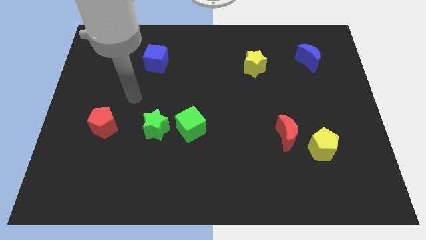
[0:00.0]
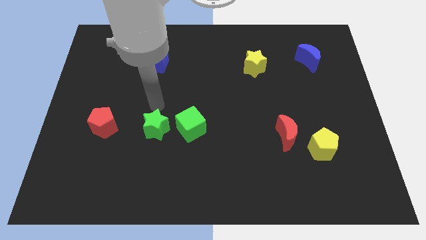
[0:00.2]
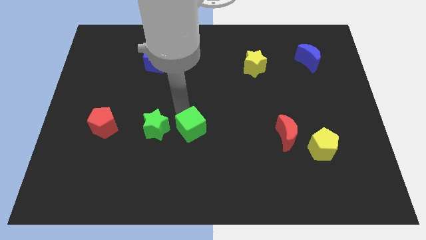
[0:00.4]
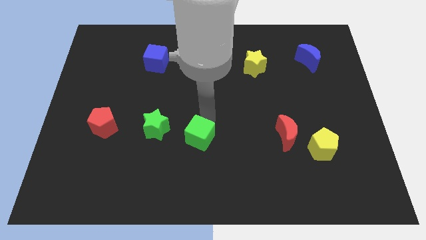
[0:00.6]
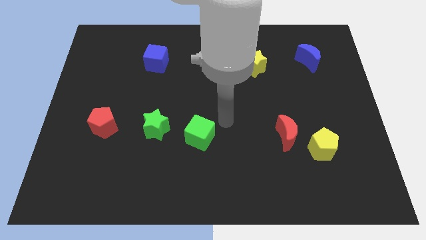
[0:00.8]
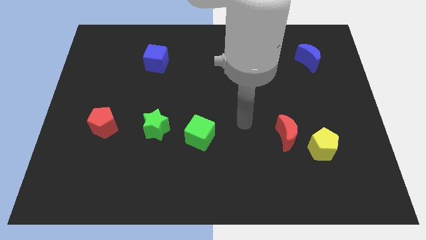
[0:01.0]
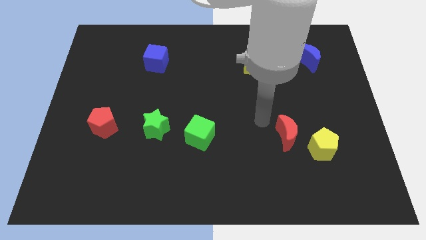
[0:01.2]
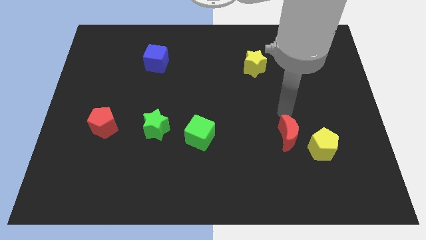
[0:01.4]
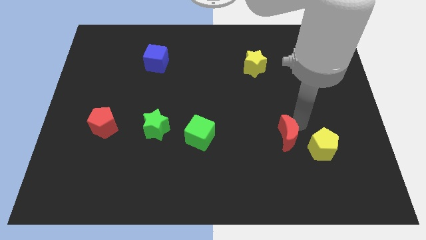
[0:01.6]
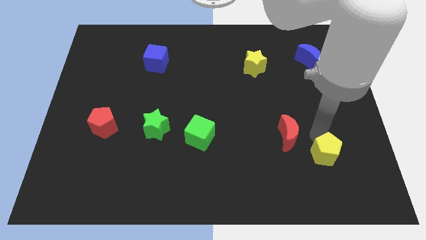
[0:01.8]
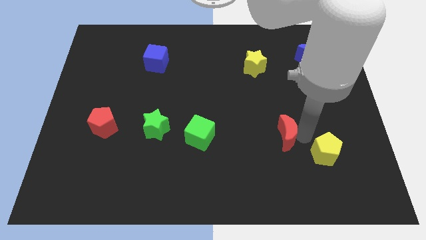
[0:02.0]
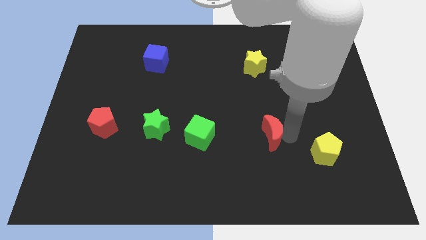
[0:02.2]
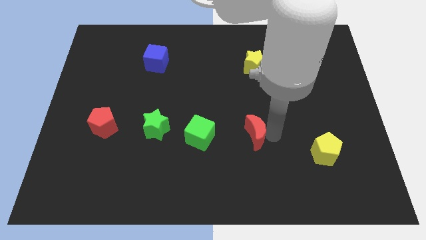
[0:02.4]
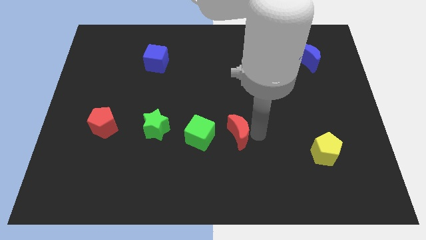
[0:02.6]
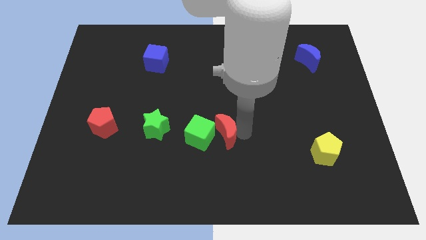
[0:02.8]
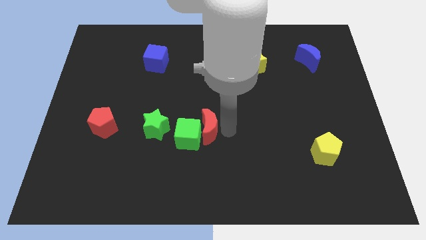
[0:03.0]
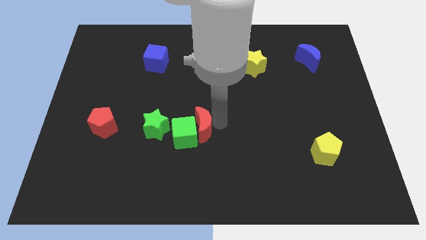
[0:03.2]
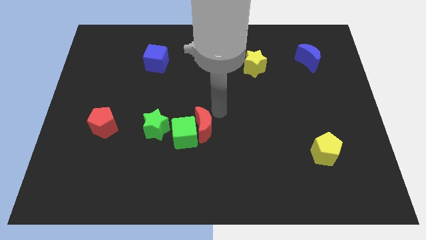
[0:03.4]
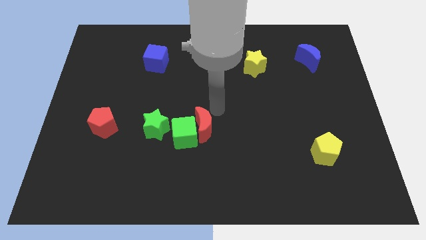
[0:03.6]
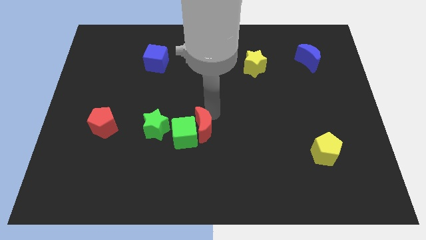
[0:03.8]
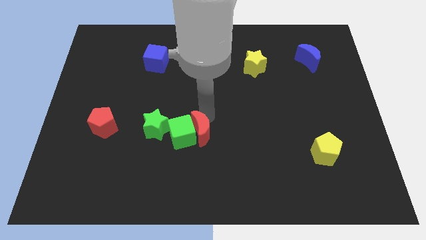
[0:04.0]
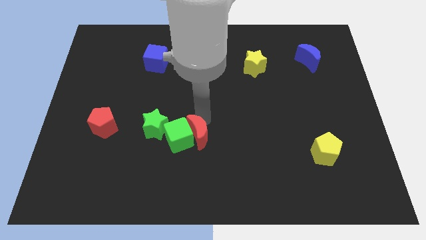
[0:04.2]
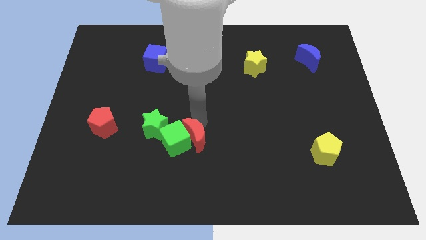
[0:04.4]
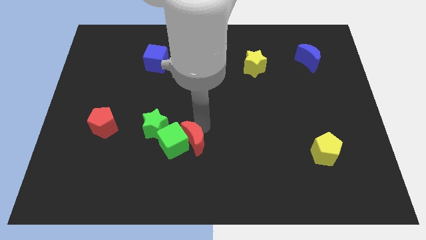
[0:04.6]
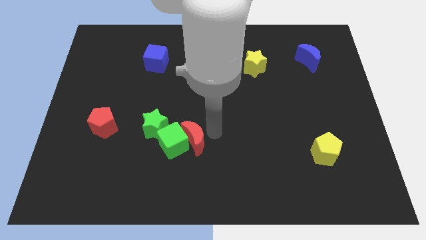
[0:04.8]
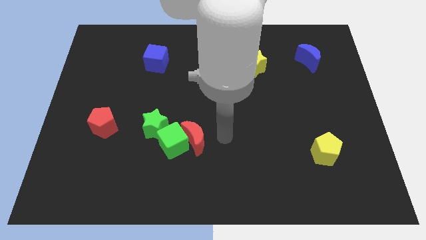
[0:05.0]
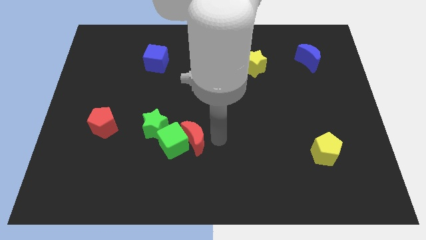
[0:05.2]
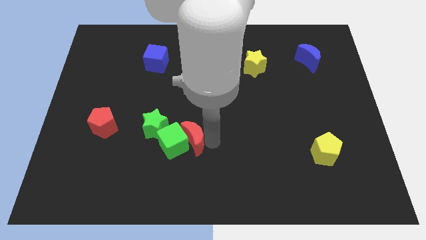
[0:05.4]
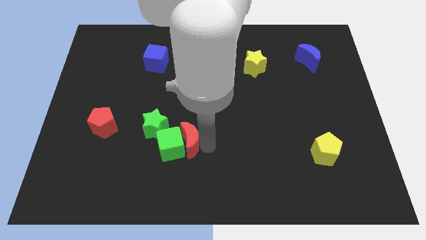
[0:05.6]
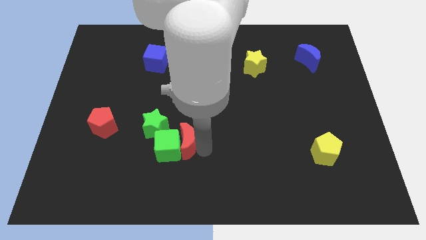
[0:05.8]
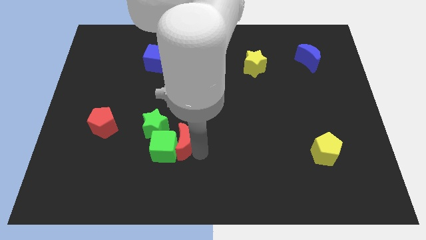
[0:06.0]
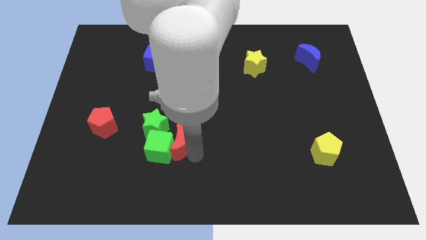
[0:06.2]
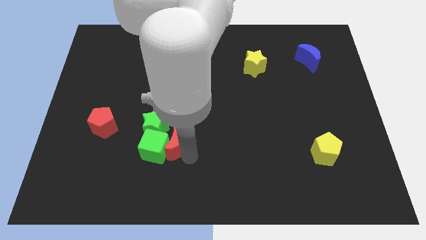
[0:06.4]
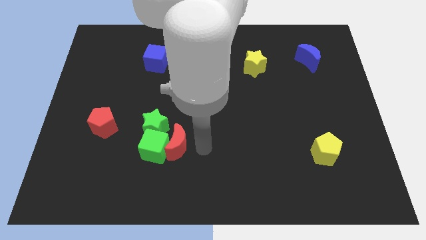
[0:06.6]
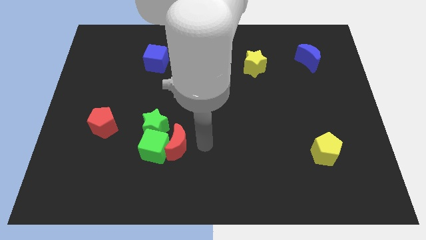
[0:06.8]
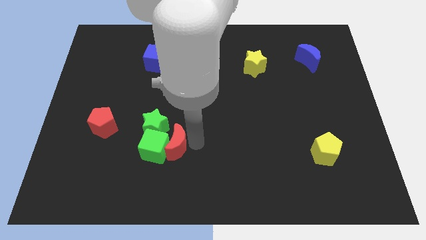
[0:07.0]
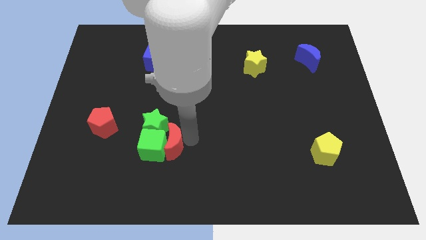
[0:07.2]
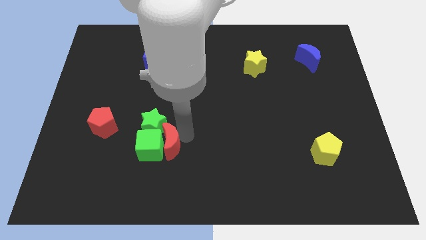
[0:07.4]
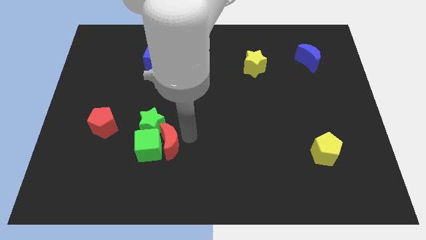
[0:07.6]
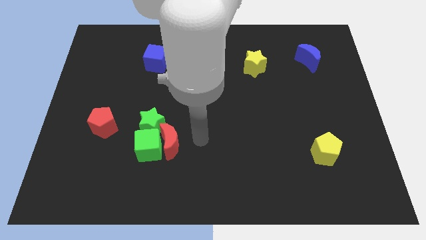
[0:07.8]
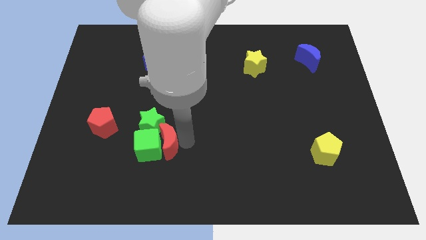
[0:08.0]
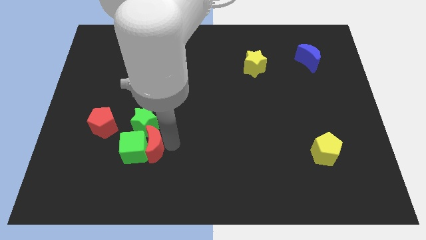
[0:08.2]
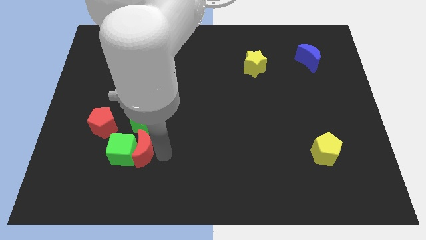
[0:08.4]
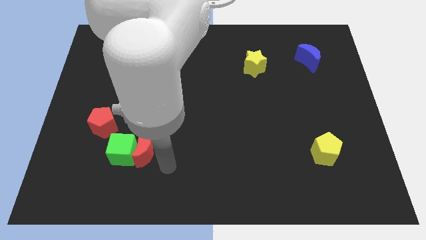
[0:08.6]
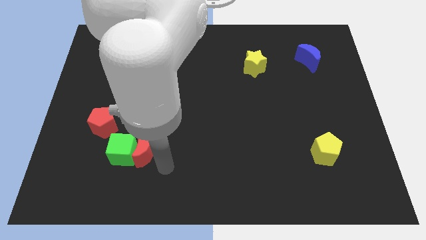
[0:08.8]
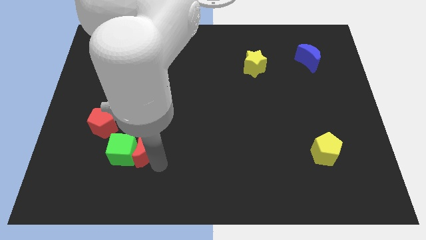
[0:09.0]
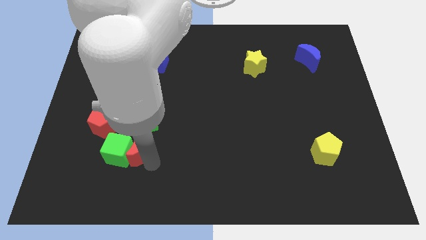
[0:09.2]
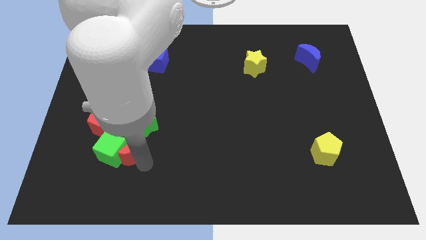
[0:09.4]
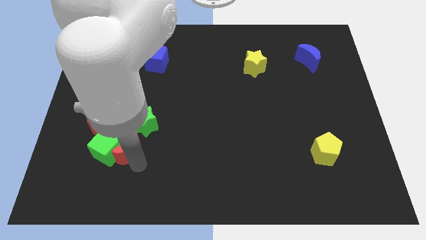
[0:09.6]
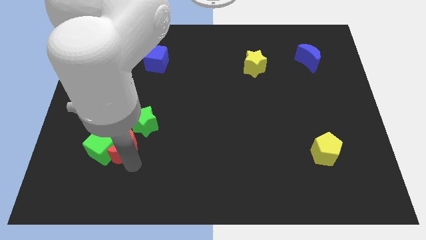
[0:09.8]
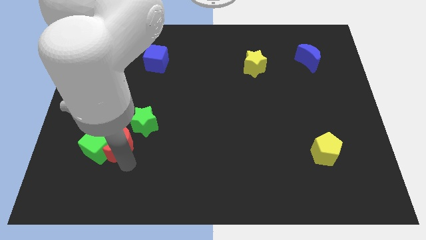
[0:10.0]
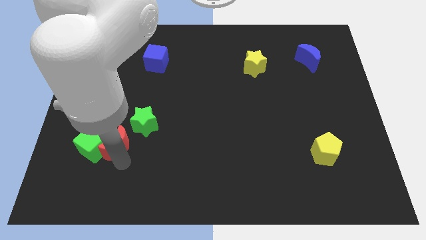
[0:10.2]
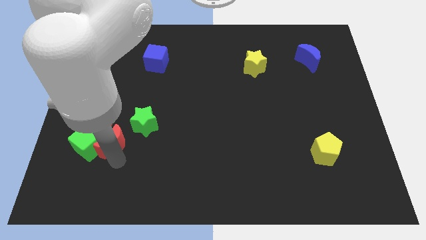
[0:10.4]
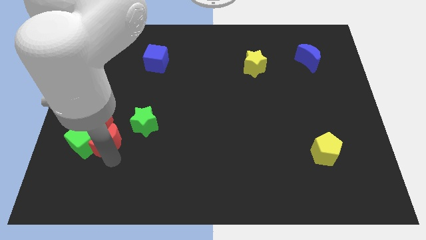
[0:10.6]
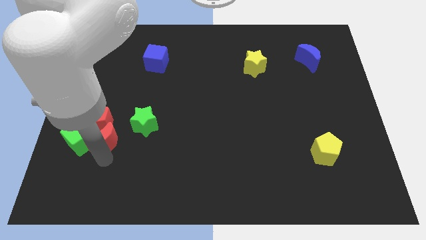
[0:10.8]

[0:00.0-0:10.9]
push the red moon towards the red pentagon

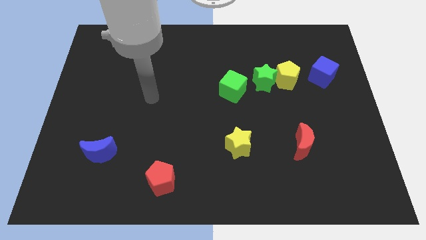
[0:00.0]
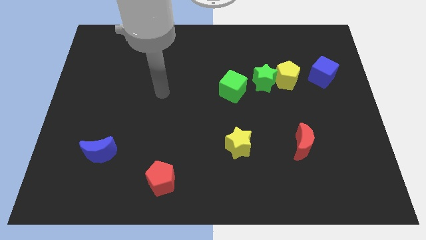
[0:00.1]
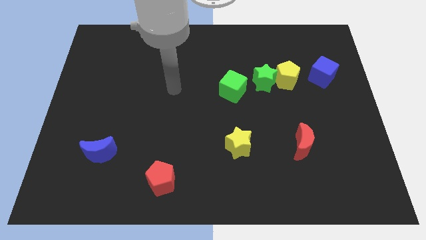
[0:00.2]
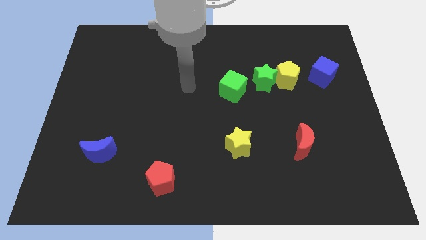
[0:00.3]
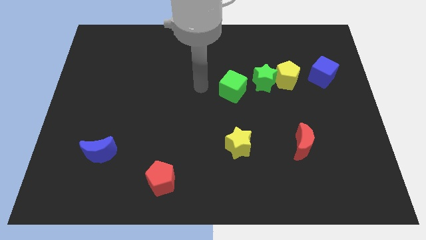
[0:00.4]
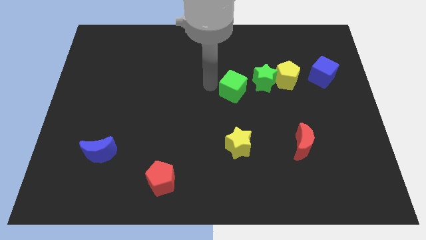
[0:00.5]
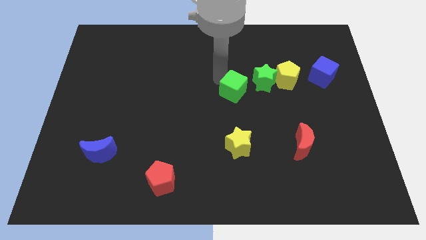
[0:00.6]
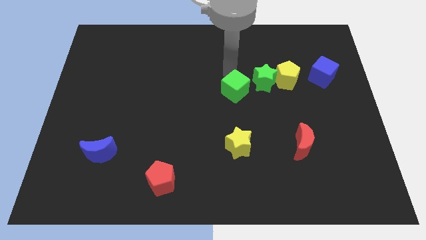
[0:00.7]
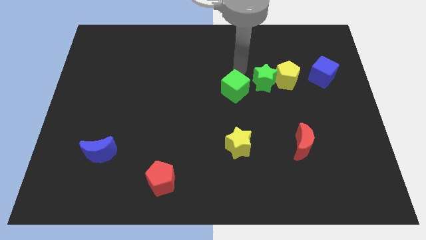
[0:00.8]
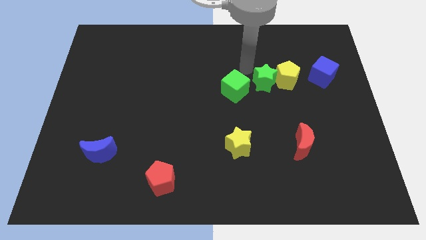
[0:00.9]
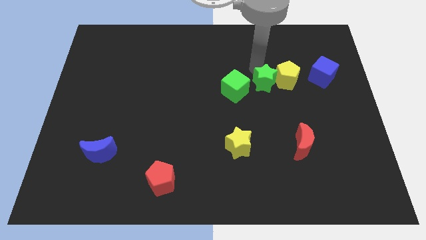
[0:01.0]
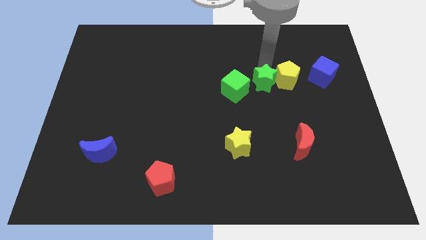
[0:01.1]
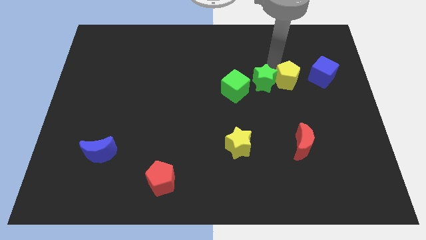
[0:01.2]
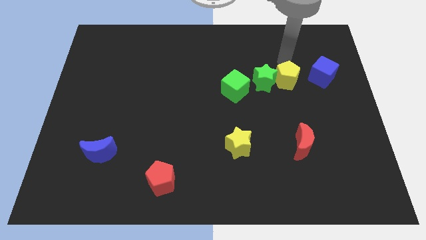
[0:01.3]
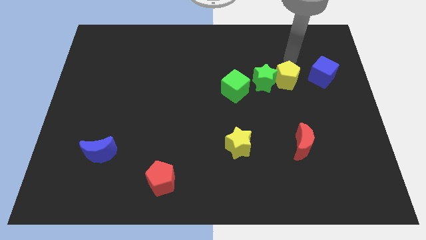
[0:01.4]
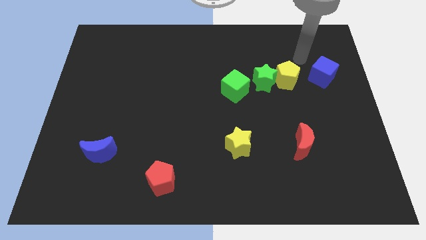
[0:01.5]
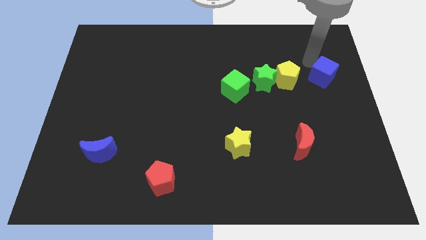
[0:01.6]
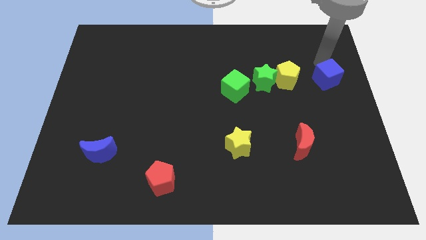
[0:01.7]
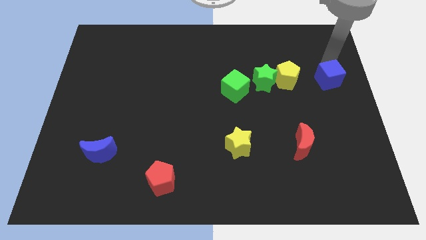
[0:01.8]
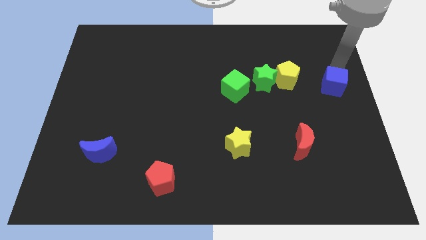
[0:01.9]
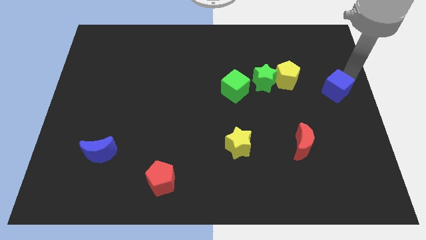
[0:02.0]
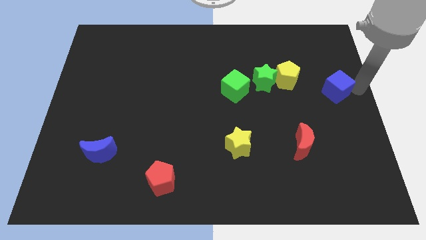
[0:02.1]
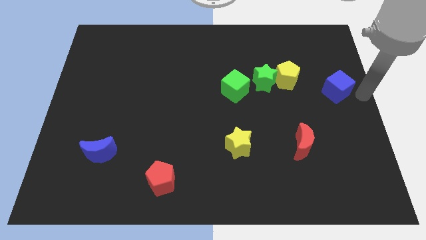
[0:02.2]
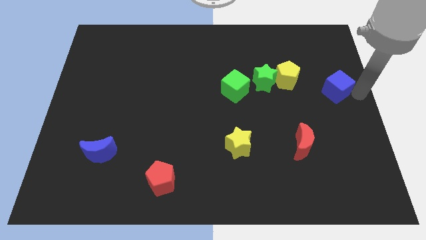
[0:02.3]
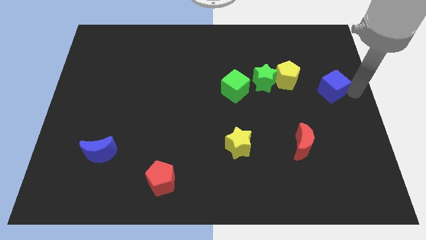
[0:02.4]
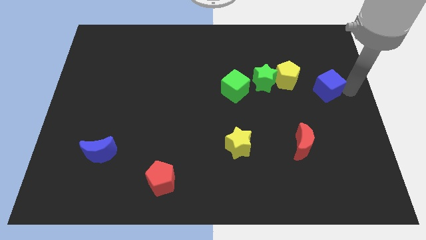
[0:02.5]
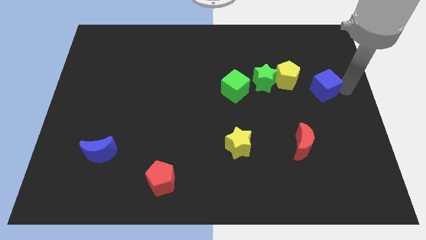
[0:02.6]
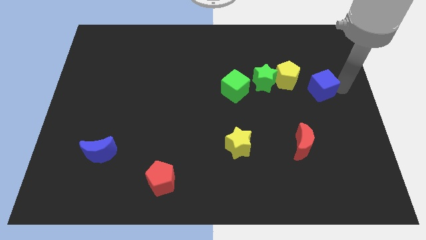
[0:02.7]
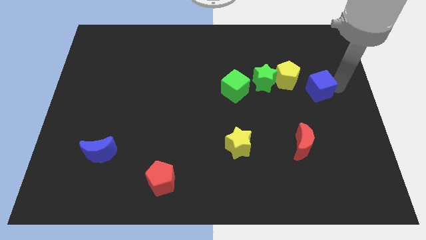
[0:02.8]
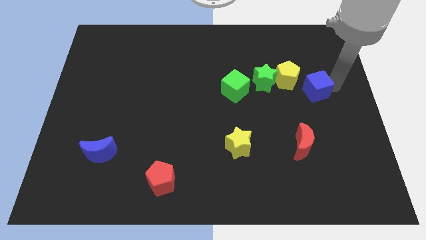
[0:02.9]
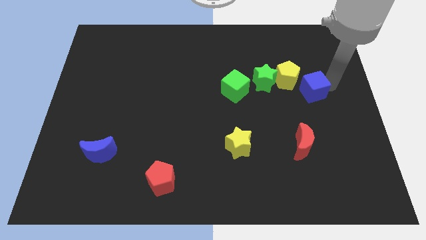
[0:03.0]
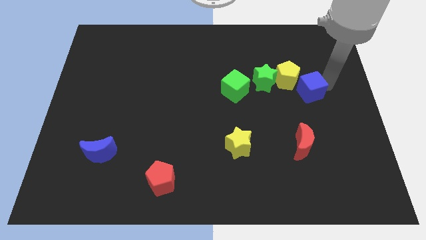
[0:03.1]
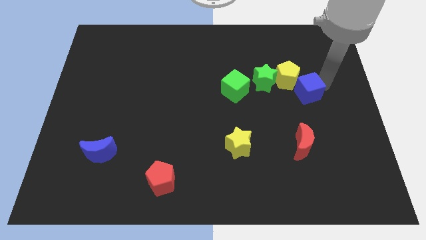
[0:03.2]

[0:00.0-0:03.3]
slide the blue cube to the yellow pentagon
